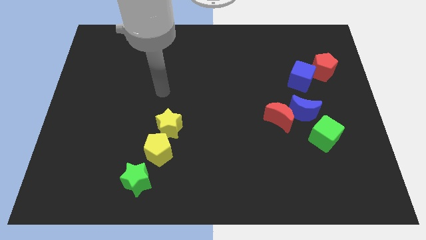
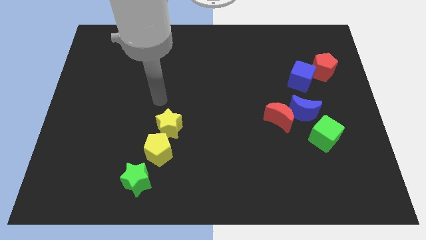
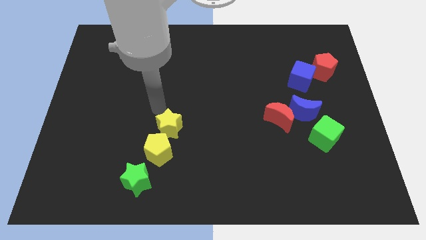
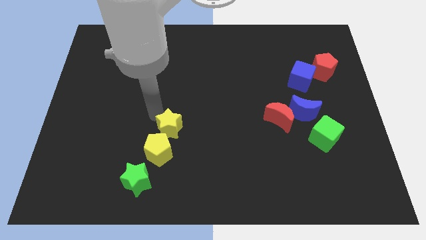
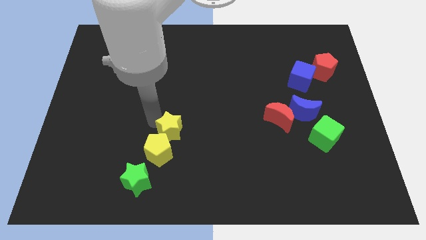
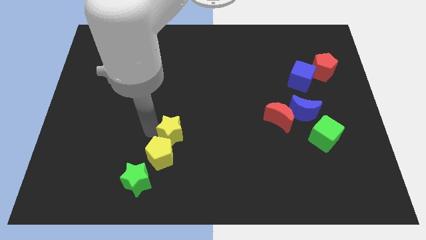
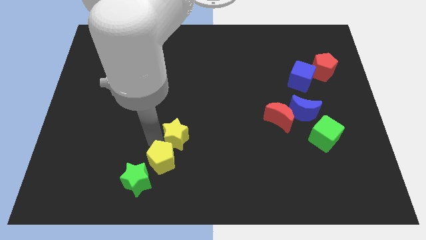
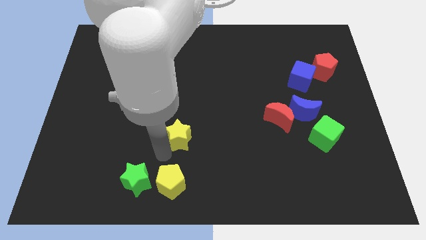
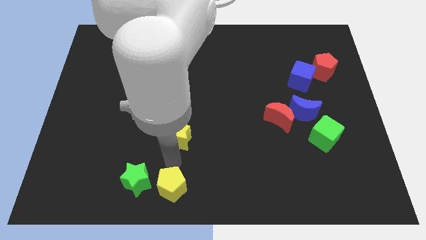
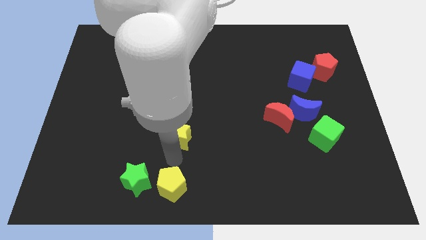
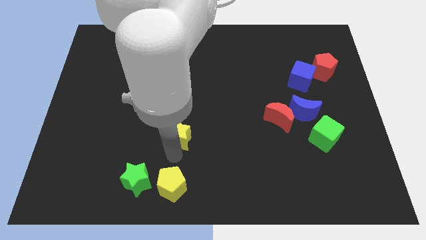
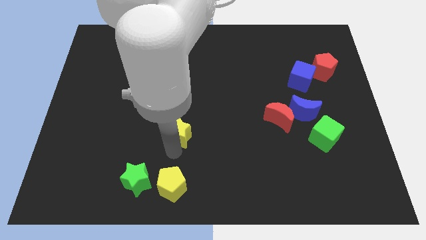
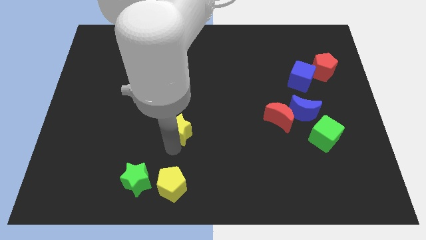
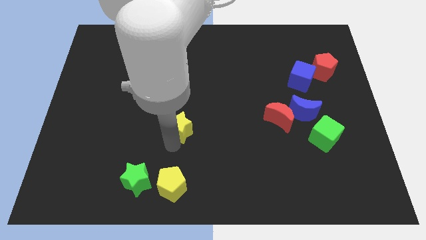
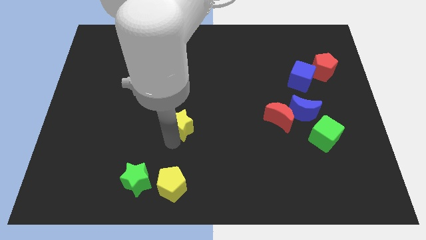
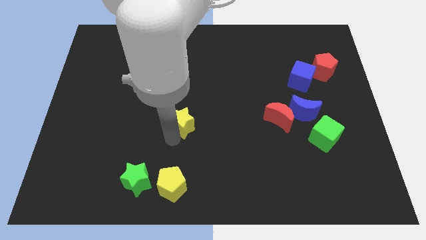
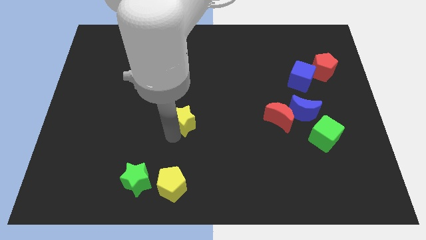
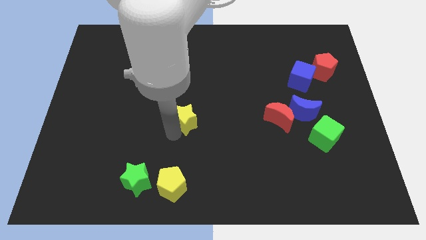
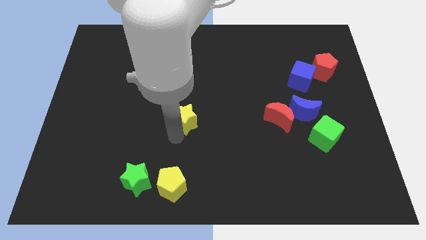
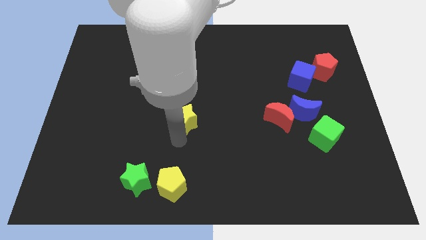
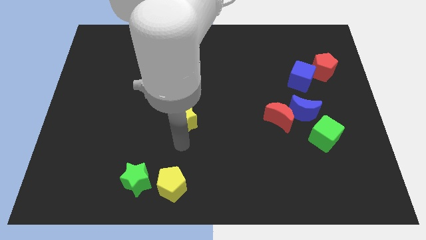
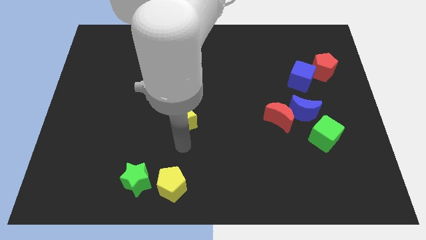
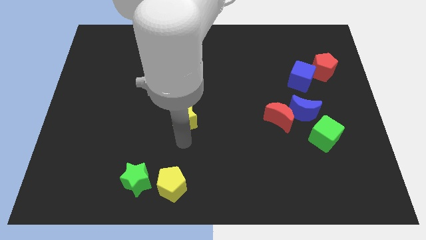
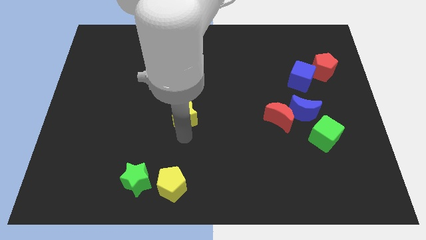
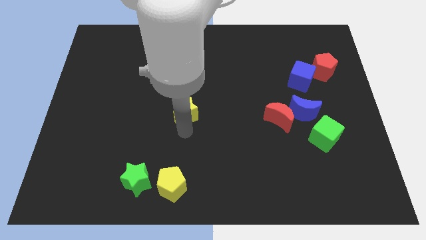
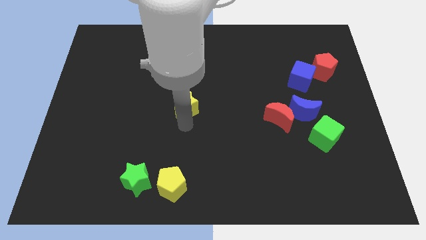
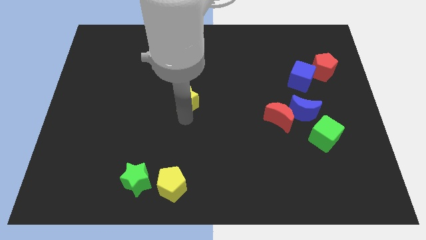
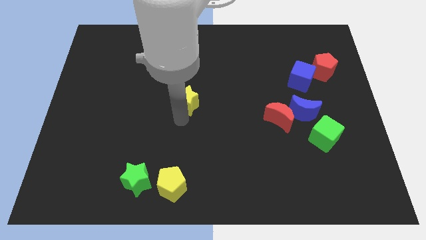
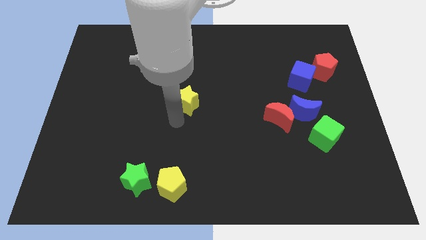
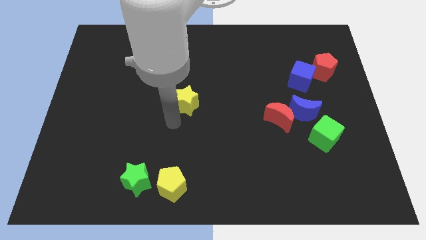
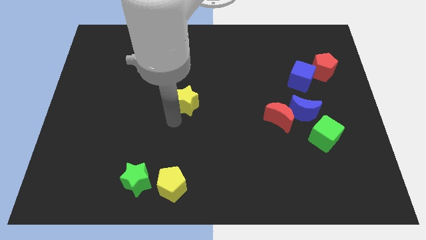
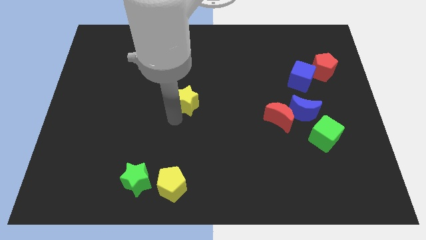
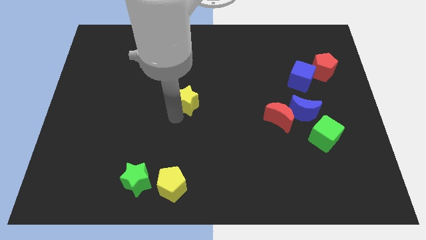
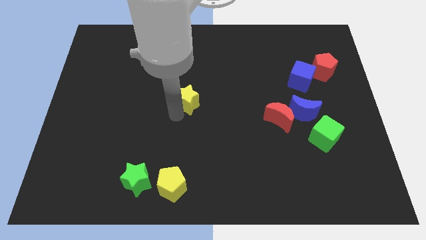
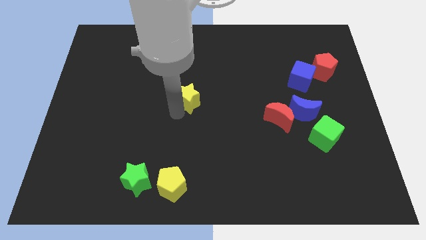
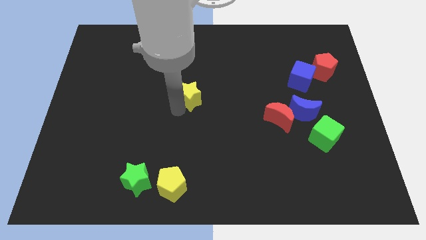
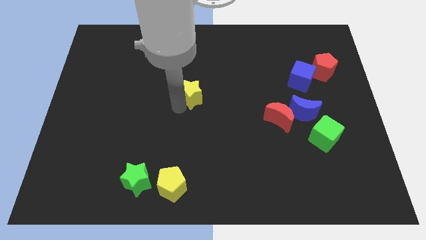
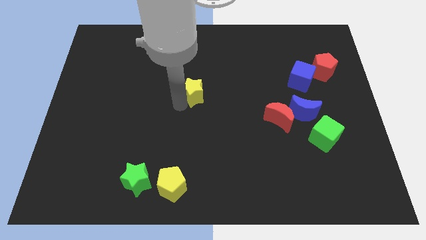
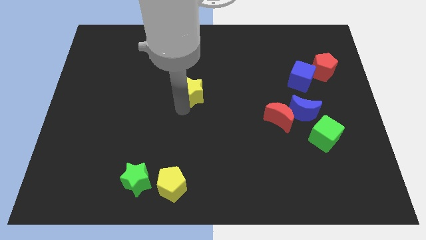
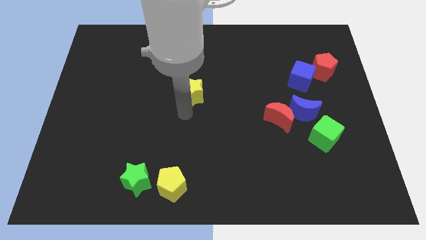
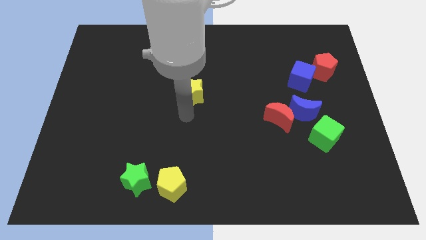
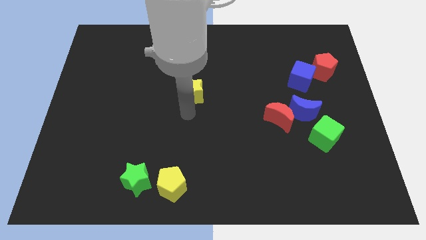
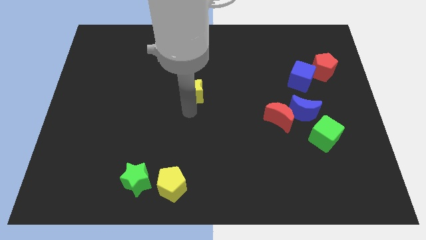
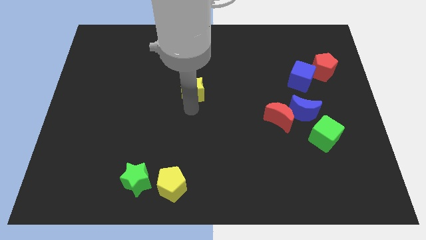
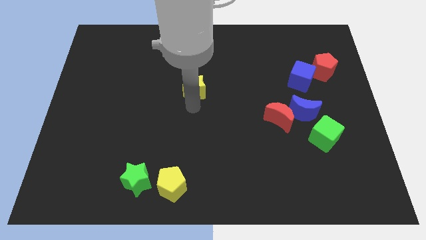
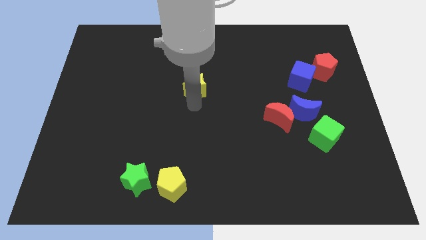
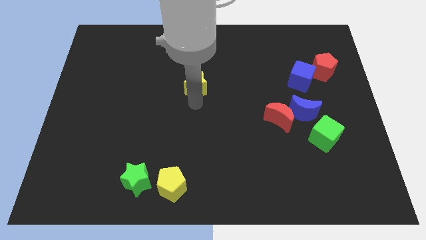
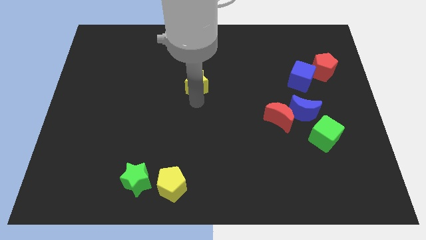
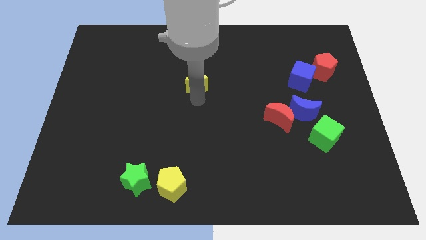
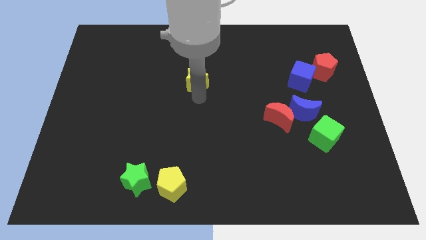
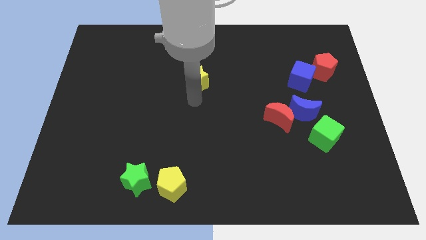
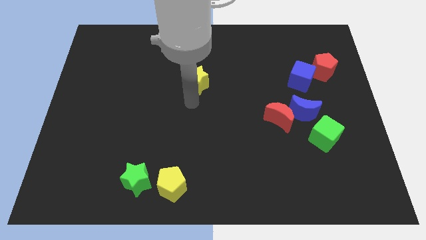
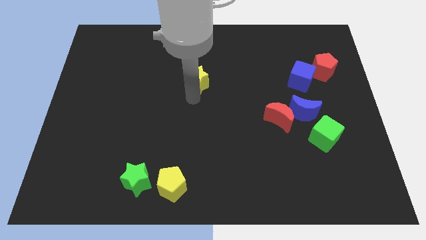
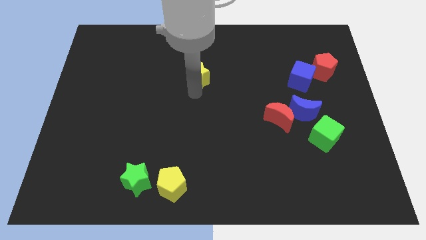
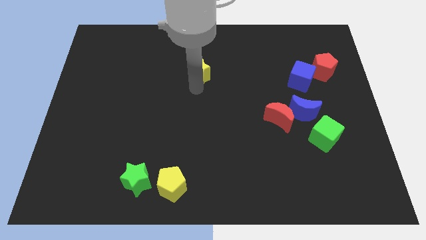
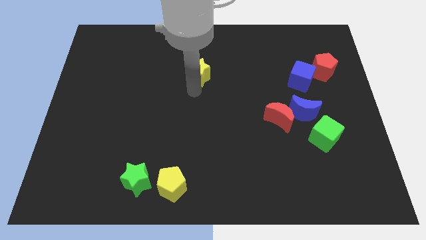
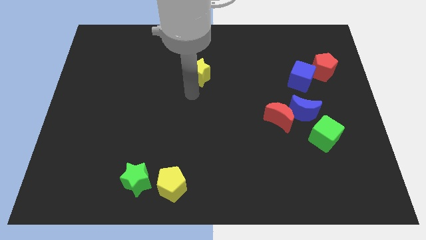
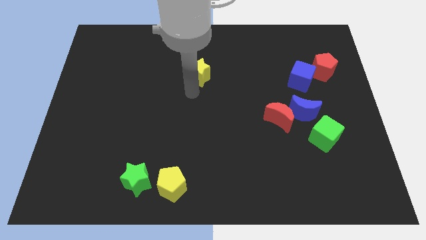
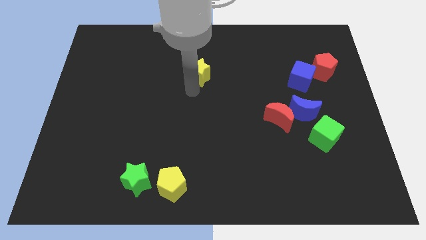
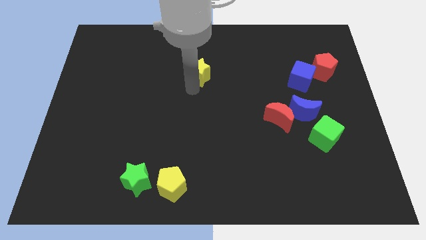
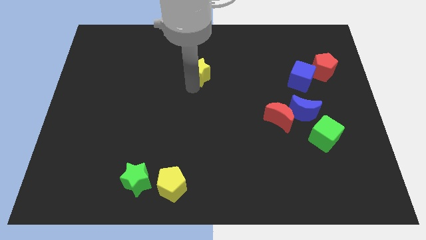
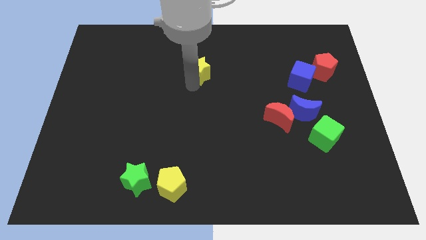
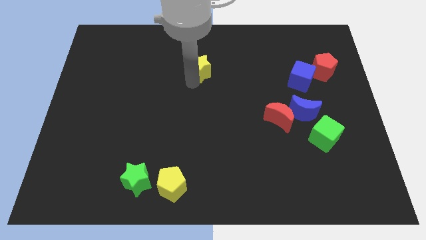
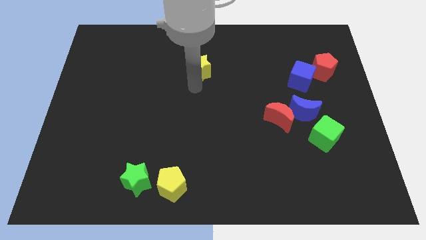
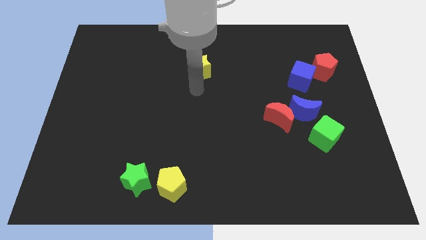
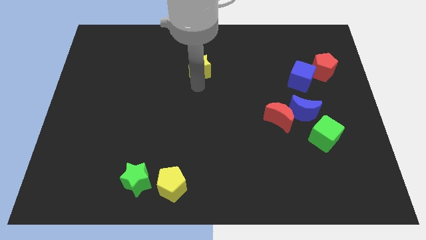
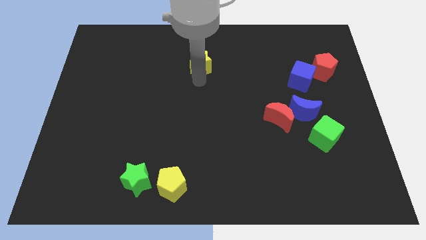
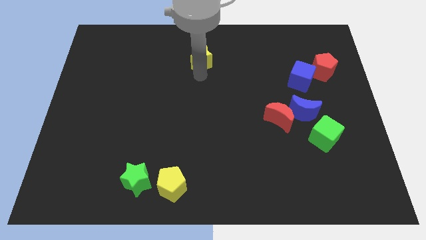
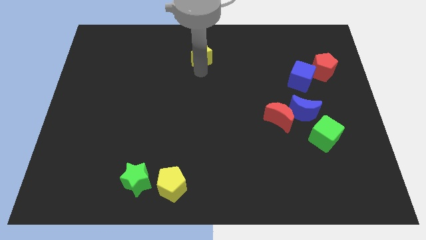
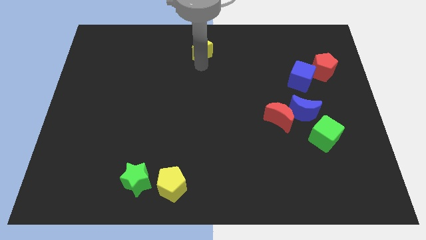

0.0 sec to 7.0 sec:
push the yellow star to the top side
